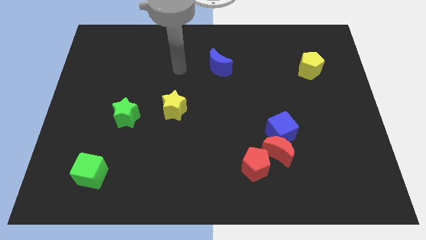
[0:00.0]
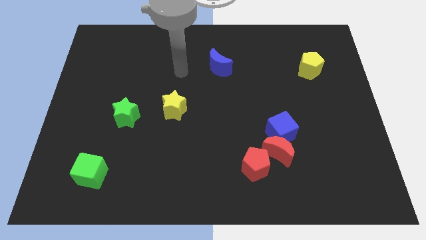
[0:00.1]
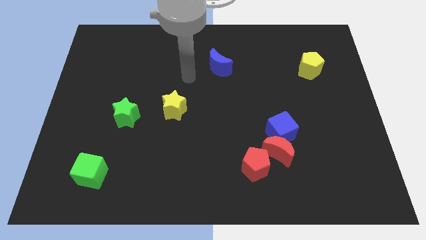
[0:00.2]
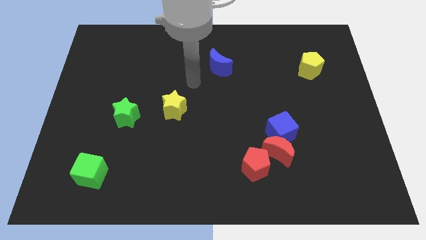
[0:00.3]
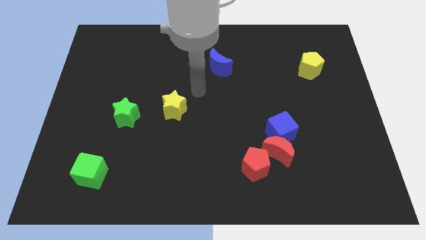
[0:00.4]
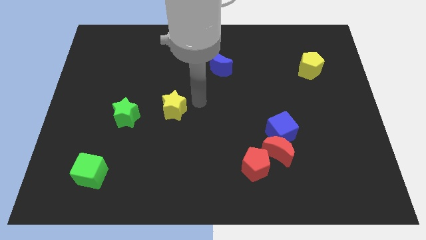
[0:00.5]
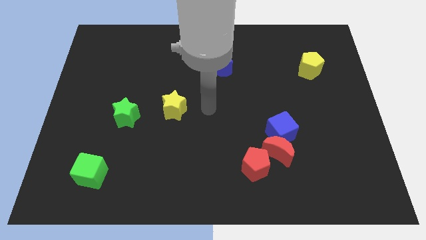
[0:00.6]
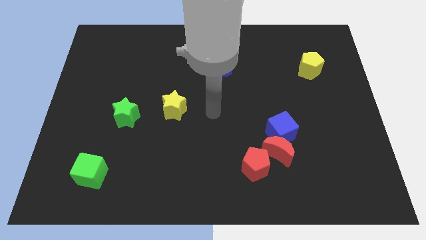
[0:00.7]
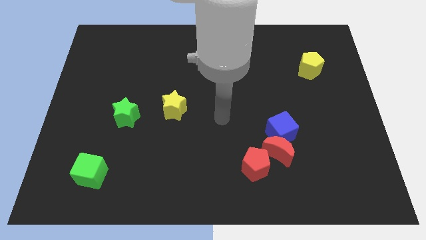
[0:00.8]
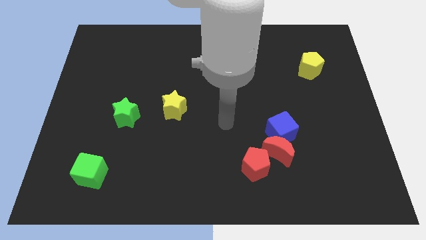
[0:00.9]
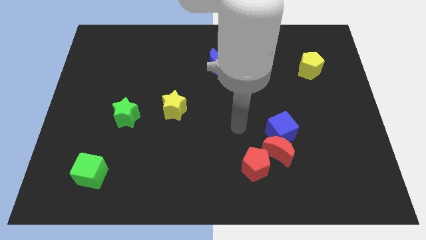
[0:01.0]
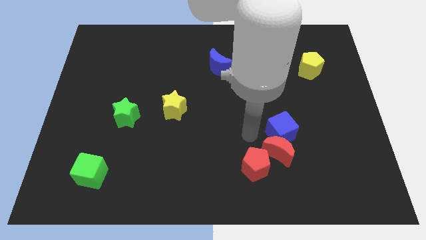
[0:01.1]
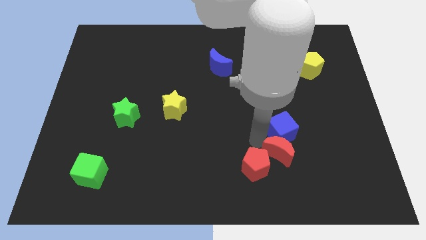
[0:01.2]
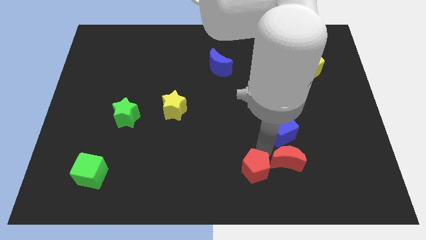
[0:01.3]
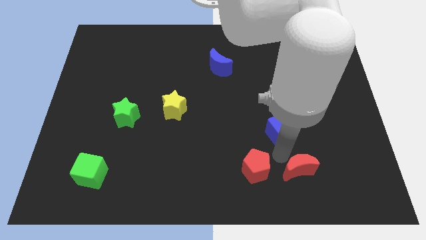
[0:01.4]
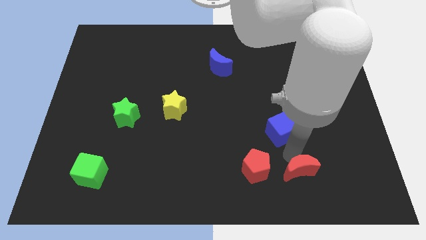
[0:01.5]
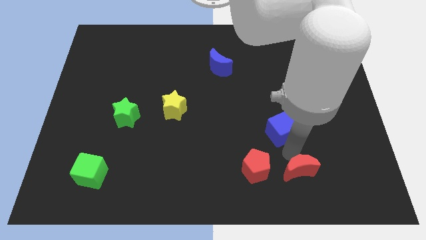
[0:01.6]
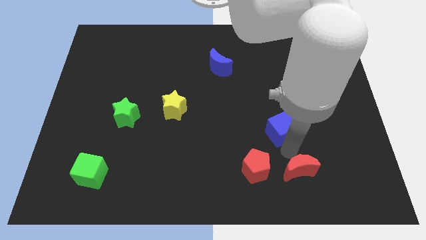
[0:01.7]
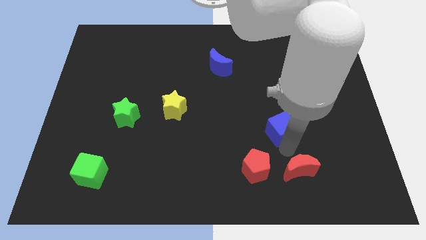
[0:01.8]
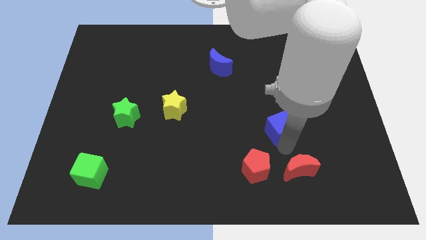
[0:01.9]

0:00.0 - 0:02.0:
separate the blue cube from the red moon

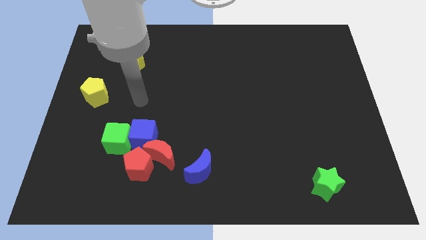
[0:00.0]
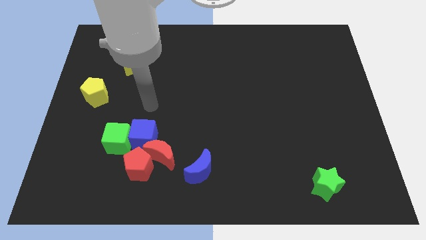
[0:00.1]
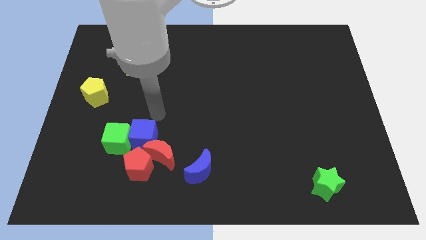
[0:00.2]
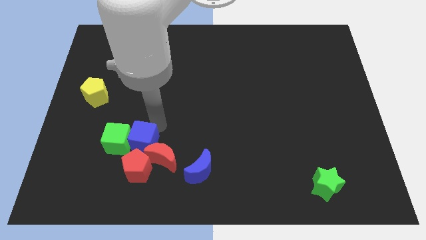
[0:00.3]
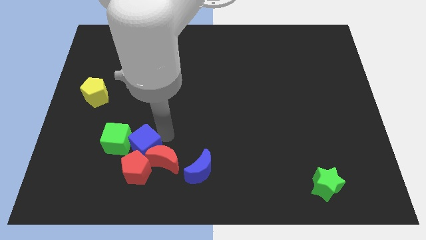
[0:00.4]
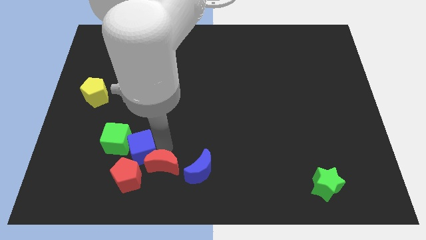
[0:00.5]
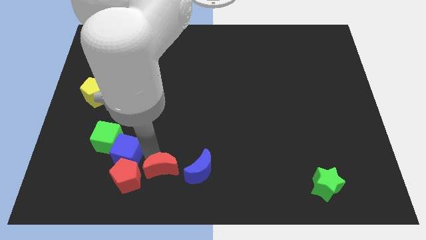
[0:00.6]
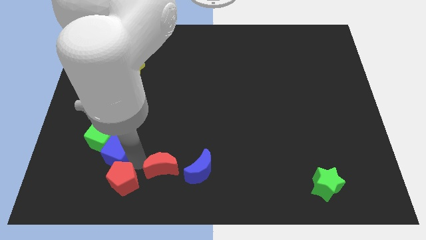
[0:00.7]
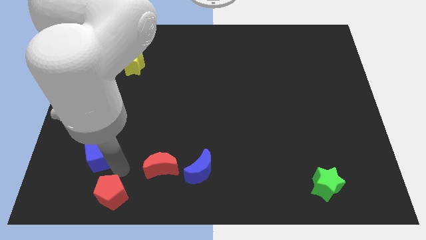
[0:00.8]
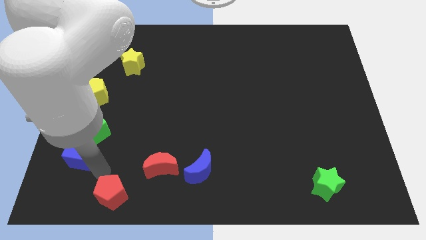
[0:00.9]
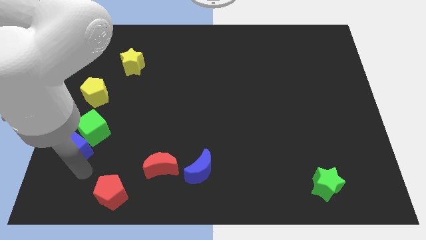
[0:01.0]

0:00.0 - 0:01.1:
pull the blue cube apart from the green cube, red moon, and red pentagon

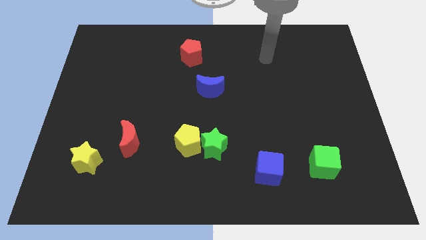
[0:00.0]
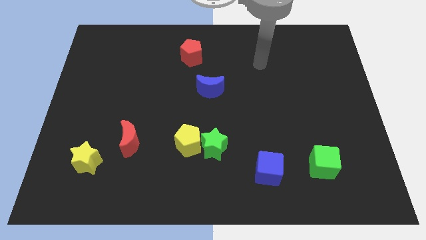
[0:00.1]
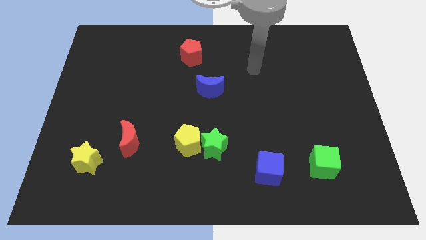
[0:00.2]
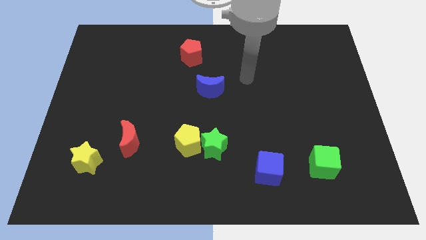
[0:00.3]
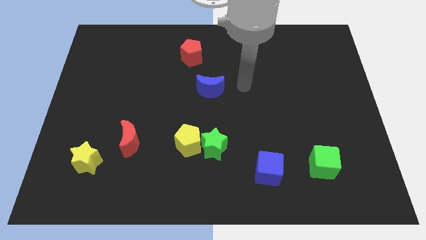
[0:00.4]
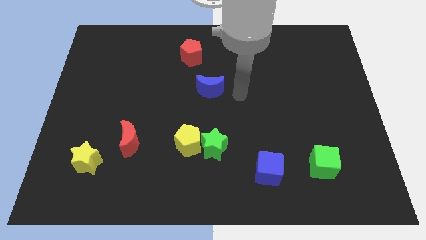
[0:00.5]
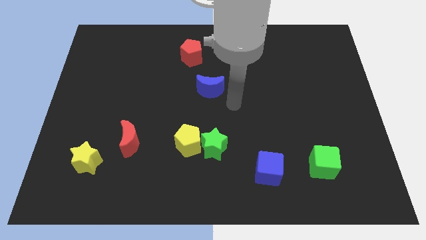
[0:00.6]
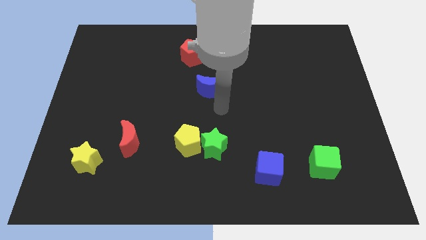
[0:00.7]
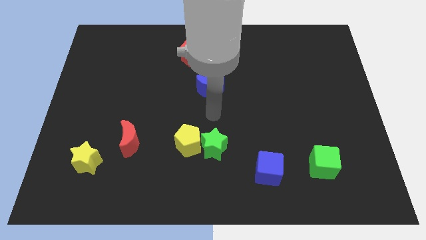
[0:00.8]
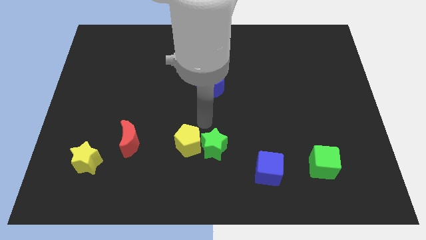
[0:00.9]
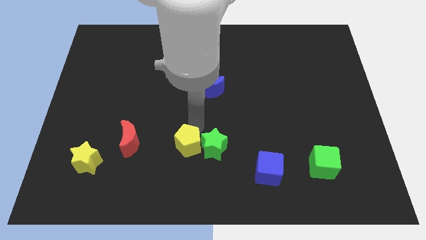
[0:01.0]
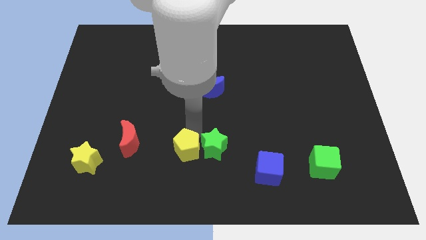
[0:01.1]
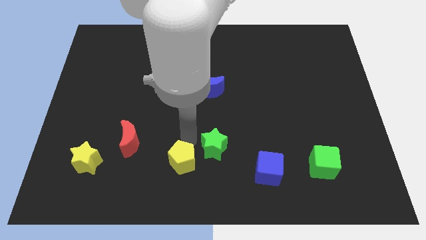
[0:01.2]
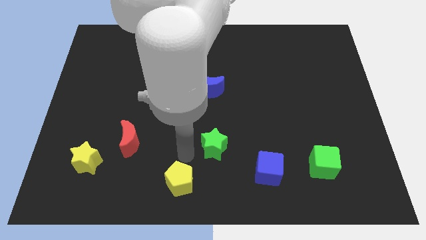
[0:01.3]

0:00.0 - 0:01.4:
separate the green star from the yellow pentagon

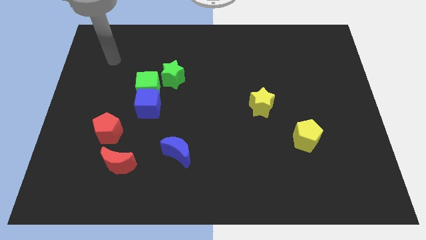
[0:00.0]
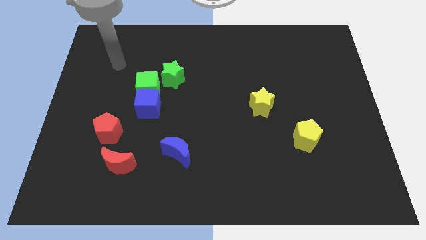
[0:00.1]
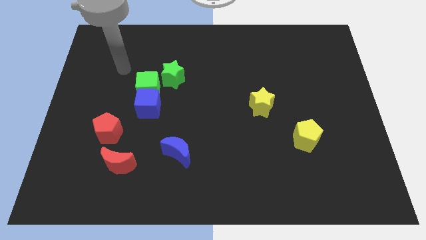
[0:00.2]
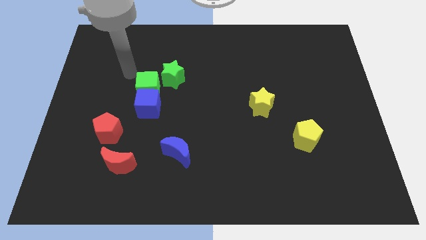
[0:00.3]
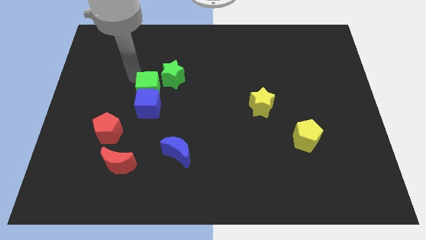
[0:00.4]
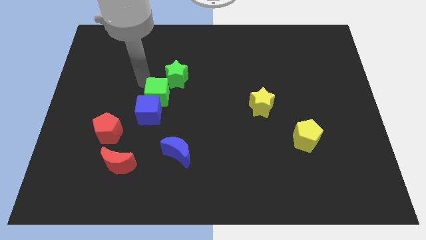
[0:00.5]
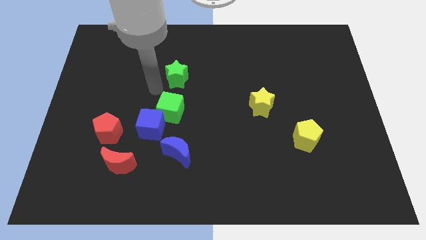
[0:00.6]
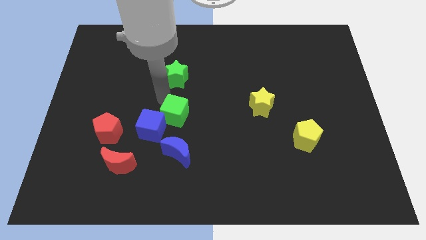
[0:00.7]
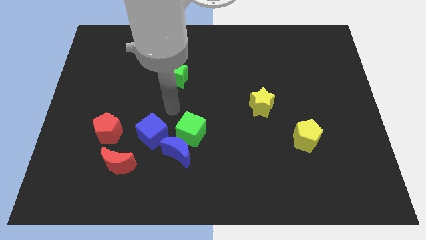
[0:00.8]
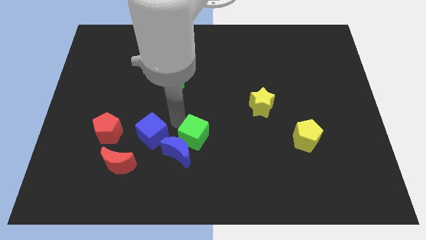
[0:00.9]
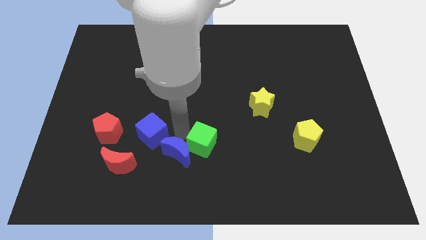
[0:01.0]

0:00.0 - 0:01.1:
move the blue cube away from the green cube

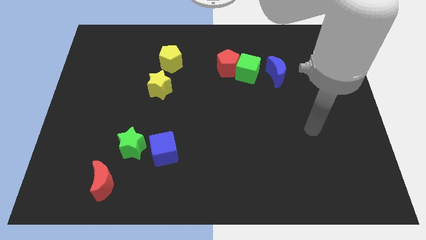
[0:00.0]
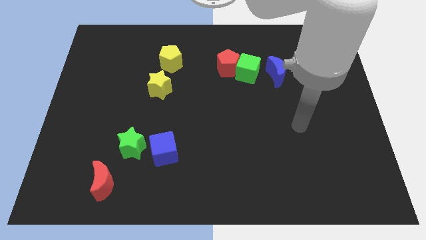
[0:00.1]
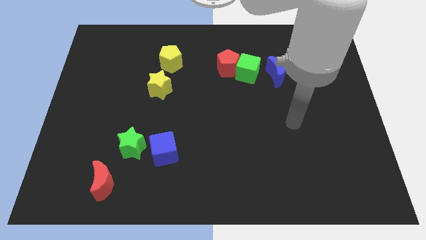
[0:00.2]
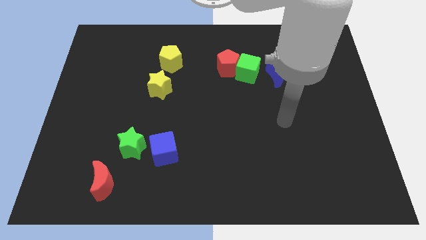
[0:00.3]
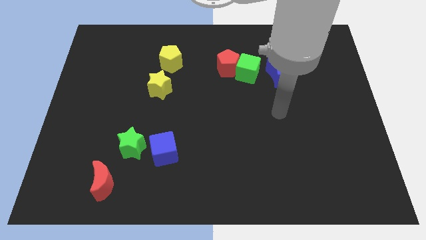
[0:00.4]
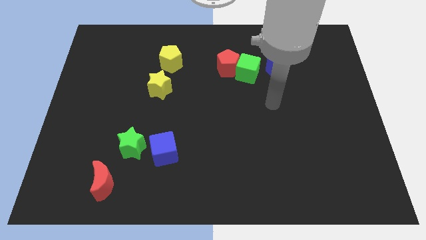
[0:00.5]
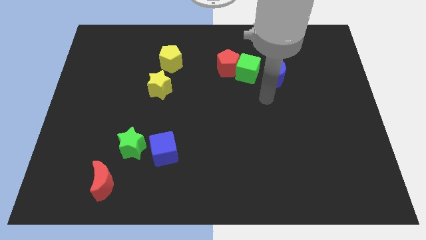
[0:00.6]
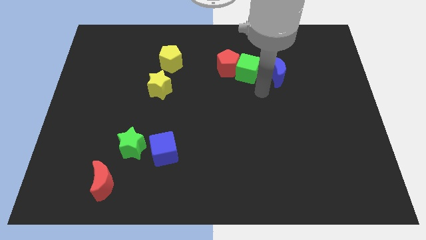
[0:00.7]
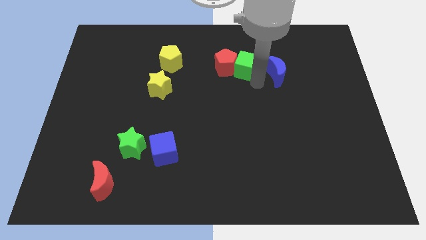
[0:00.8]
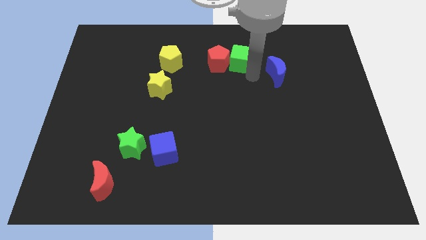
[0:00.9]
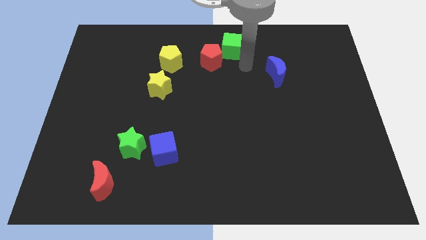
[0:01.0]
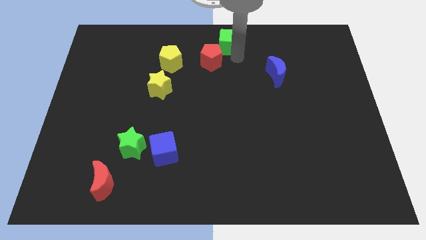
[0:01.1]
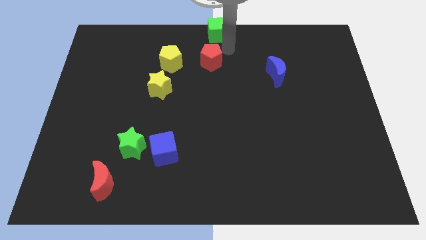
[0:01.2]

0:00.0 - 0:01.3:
separate the red pentagon from the green cube

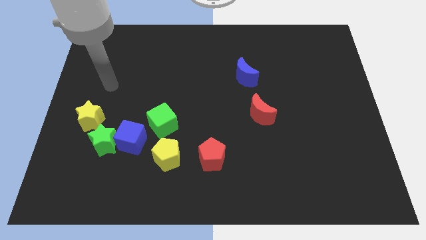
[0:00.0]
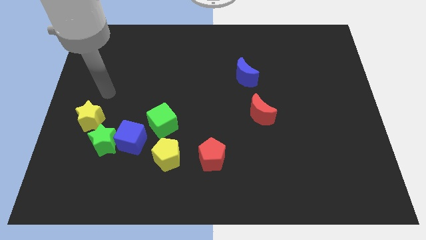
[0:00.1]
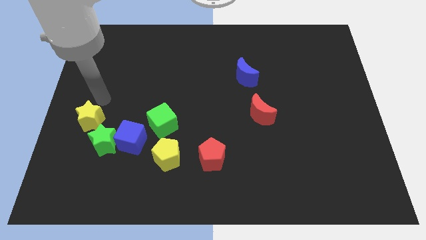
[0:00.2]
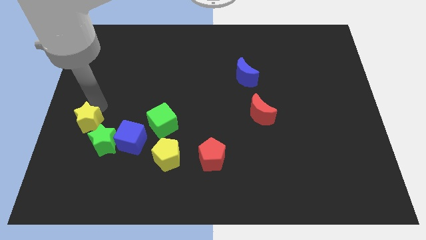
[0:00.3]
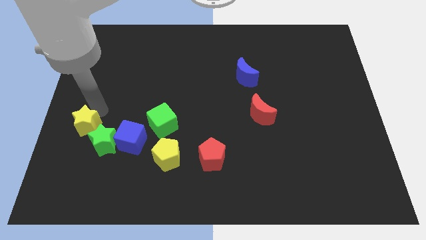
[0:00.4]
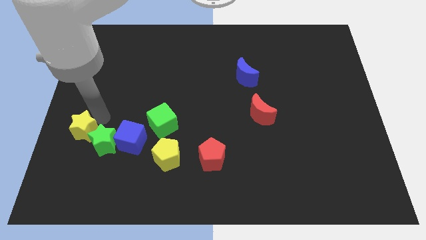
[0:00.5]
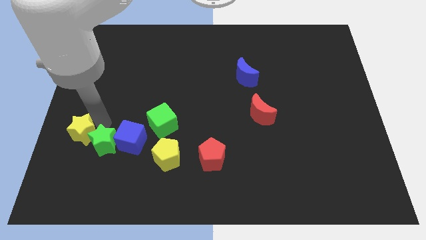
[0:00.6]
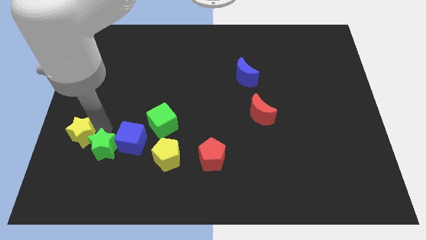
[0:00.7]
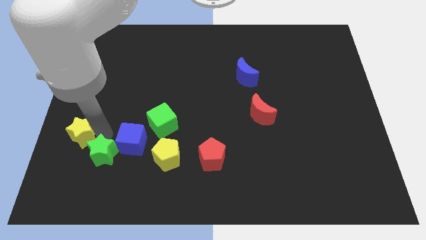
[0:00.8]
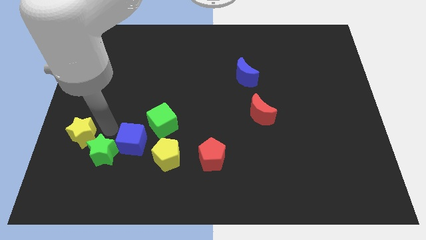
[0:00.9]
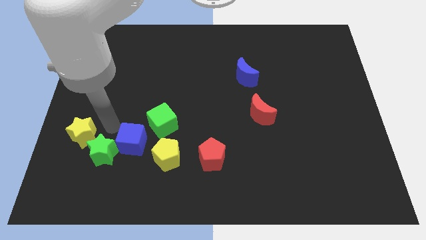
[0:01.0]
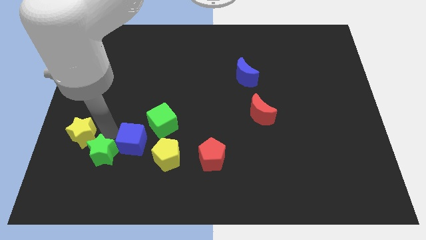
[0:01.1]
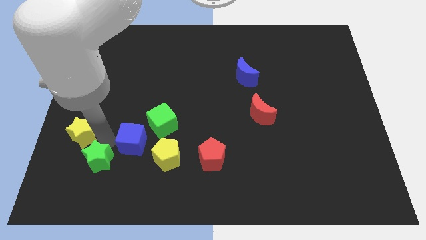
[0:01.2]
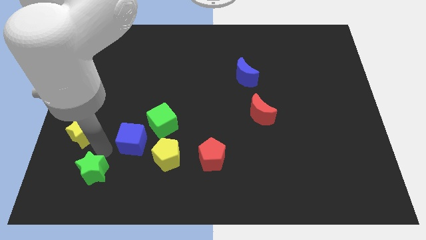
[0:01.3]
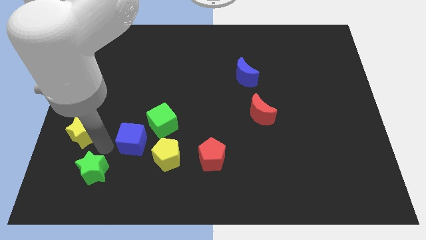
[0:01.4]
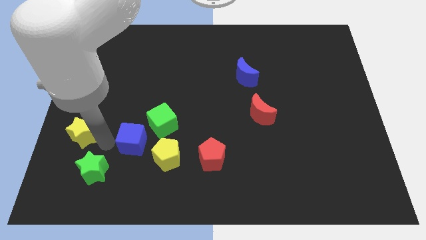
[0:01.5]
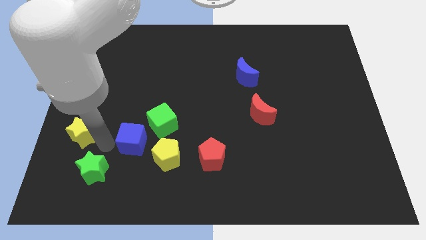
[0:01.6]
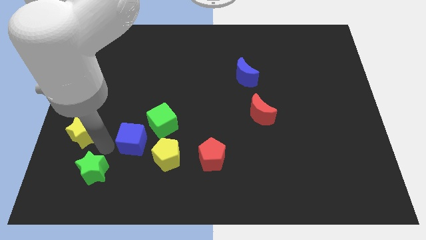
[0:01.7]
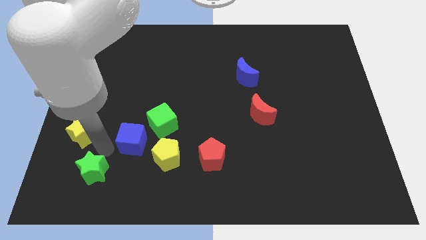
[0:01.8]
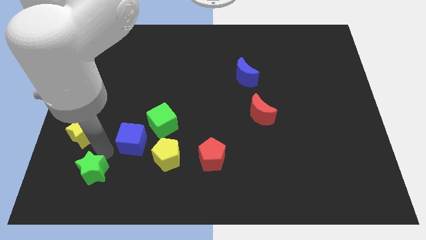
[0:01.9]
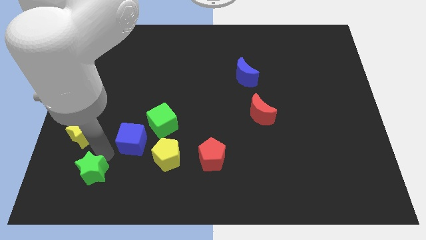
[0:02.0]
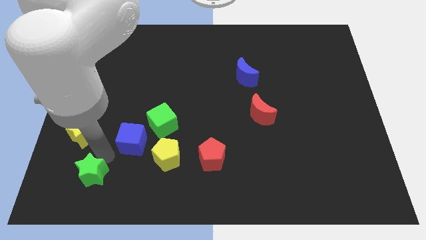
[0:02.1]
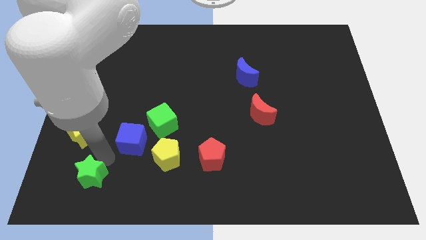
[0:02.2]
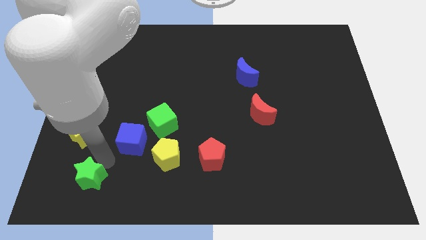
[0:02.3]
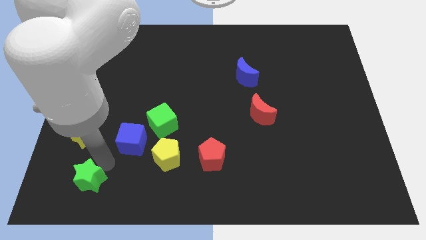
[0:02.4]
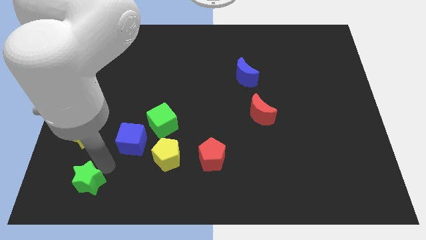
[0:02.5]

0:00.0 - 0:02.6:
separate the green star from the blue cube and yellow star
